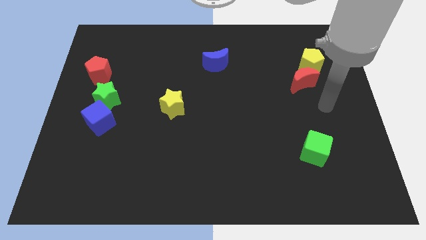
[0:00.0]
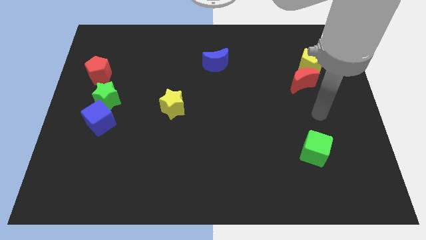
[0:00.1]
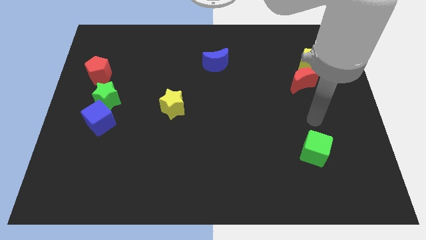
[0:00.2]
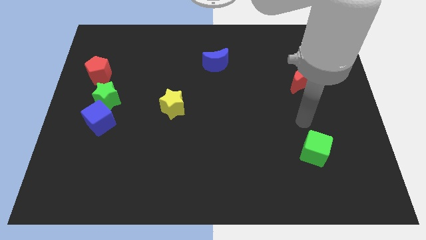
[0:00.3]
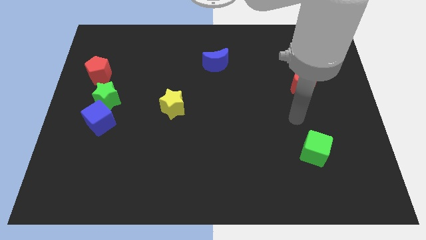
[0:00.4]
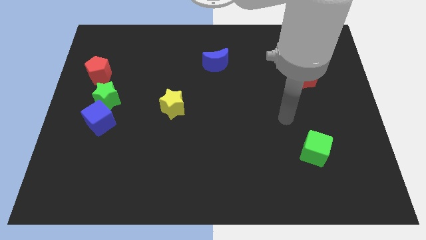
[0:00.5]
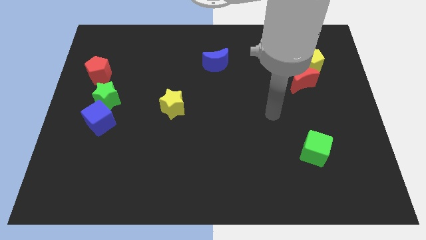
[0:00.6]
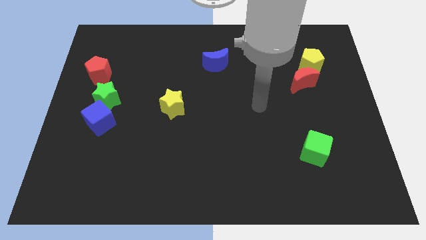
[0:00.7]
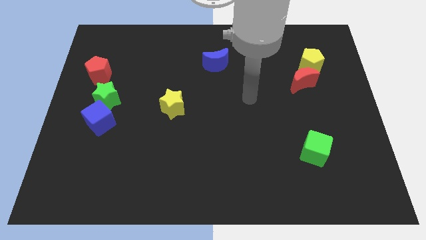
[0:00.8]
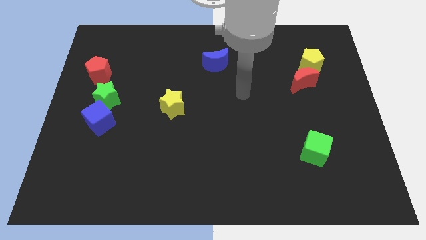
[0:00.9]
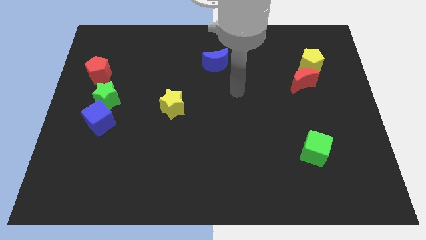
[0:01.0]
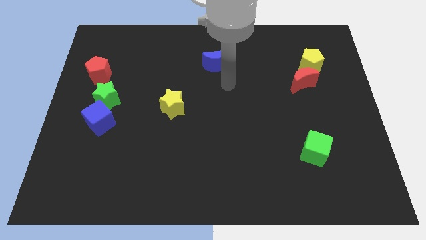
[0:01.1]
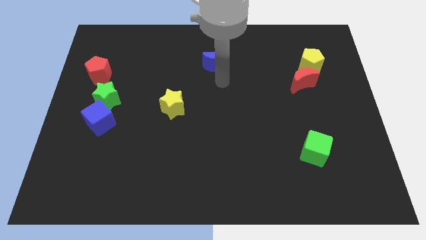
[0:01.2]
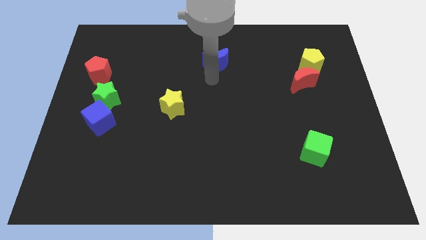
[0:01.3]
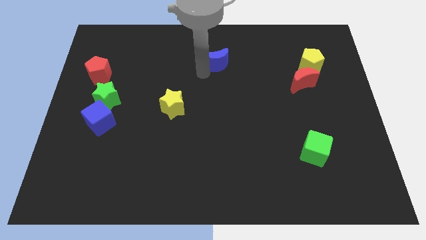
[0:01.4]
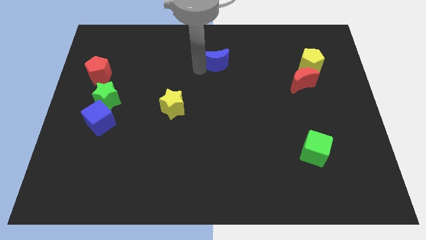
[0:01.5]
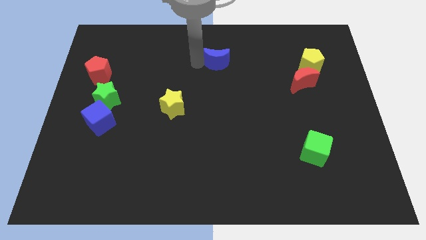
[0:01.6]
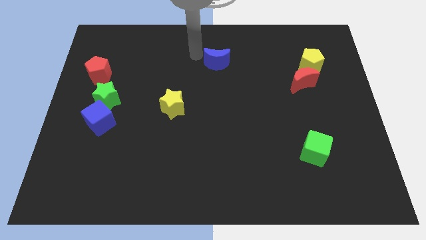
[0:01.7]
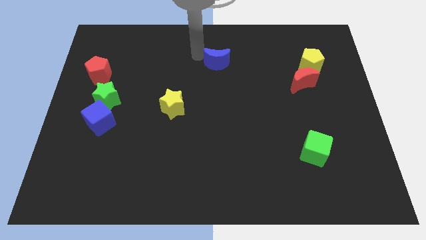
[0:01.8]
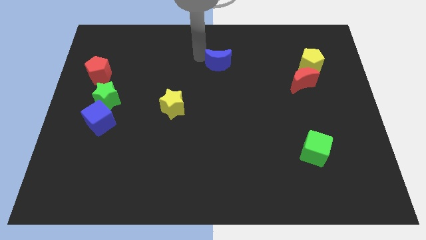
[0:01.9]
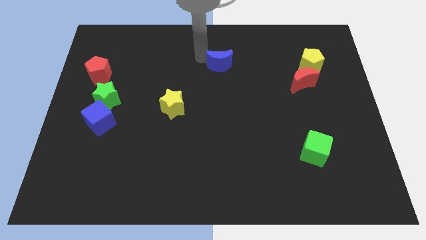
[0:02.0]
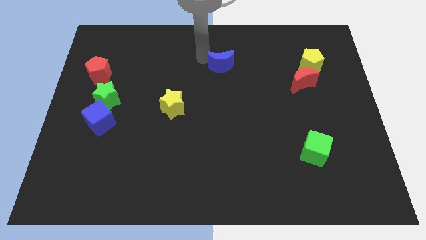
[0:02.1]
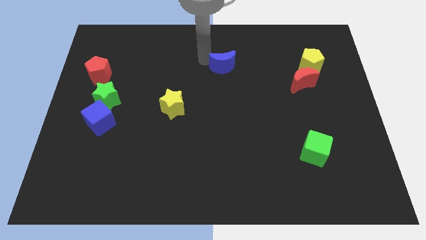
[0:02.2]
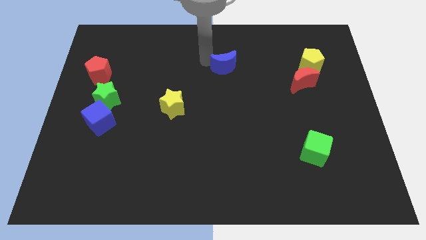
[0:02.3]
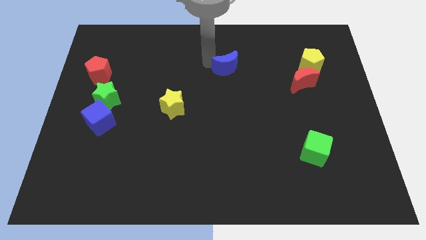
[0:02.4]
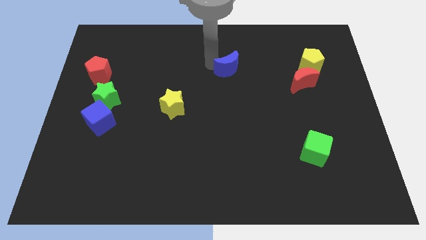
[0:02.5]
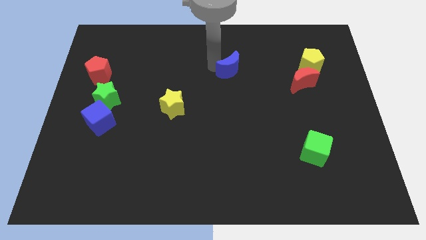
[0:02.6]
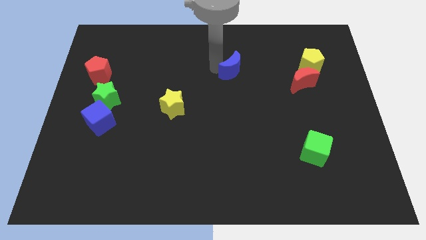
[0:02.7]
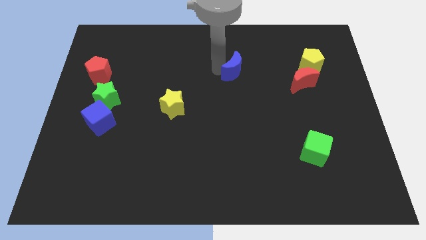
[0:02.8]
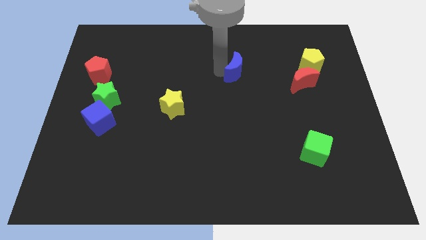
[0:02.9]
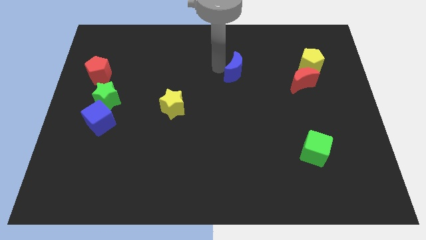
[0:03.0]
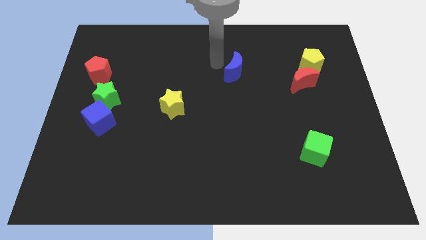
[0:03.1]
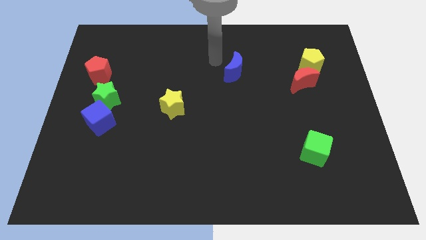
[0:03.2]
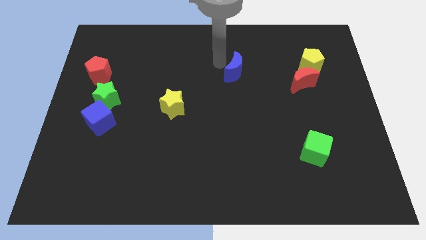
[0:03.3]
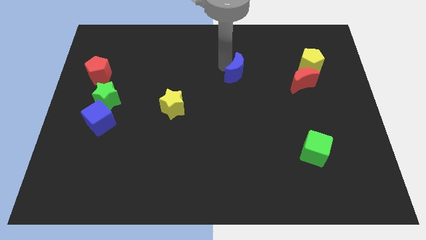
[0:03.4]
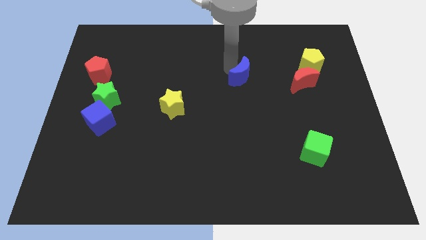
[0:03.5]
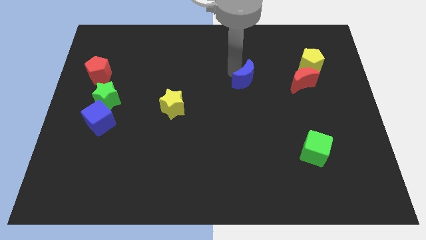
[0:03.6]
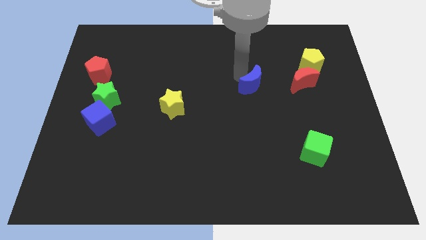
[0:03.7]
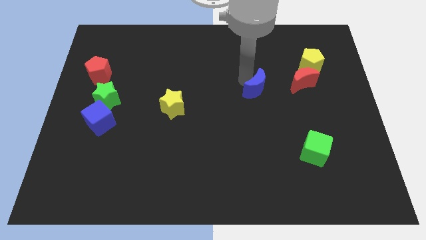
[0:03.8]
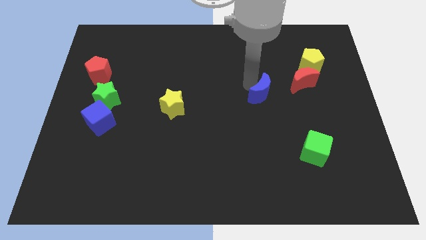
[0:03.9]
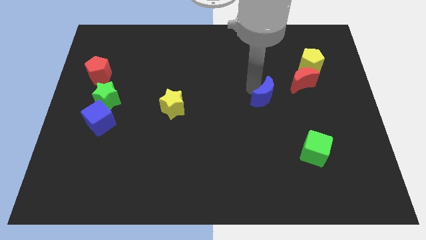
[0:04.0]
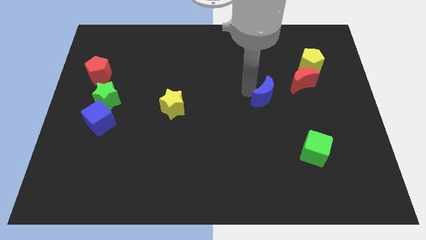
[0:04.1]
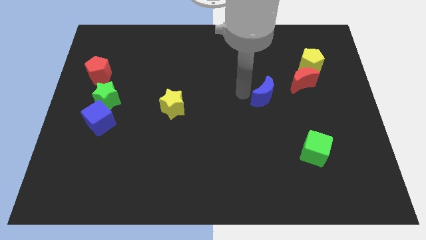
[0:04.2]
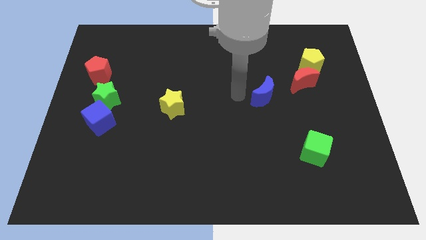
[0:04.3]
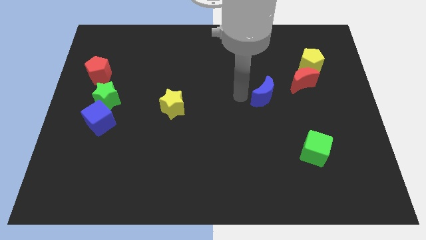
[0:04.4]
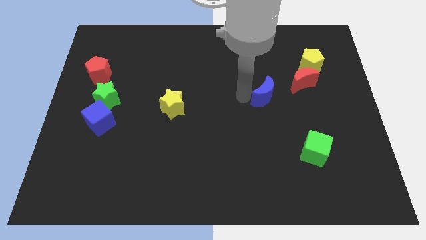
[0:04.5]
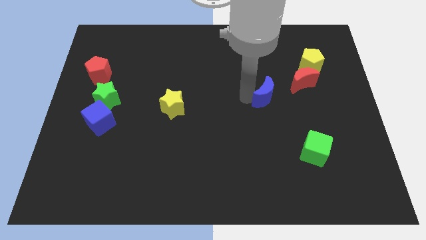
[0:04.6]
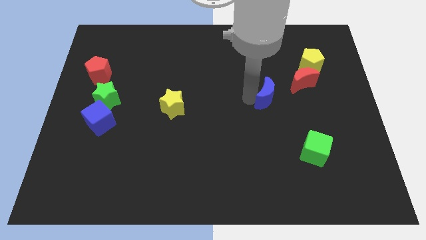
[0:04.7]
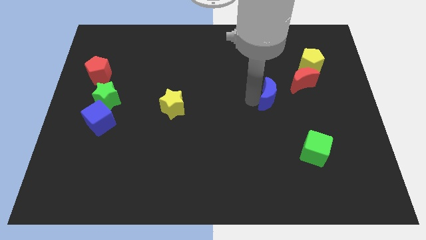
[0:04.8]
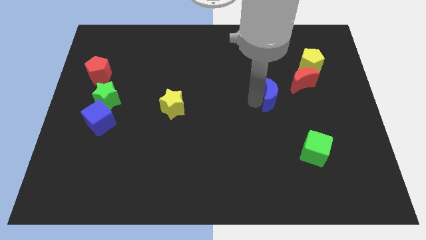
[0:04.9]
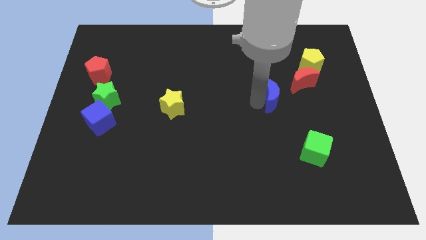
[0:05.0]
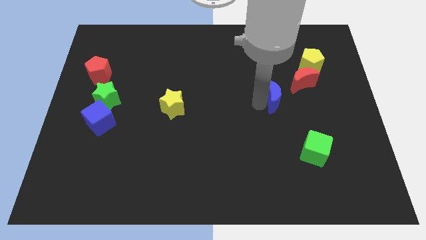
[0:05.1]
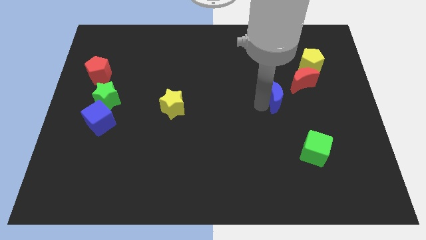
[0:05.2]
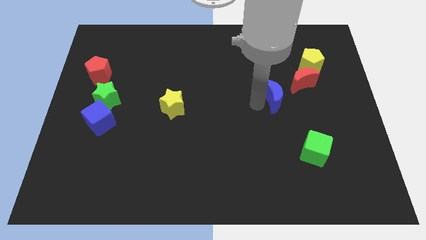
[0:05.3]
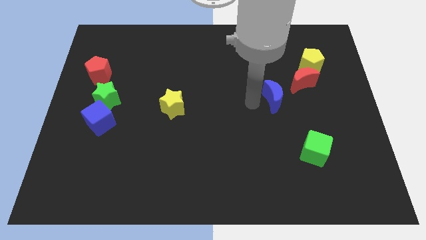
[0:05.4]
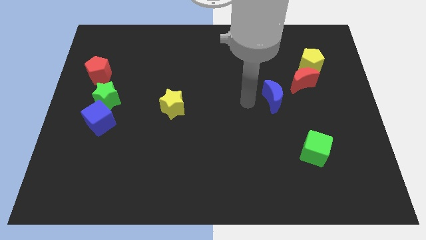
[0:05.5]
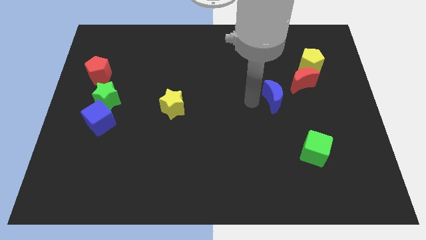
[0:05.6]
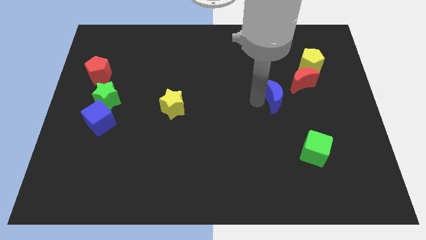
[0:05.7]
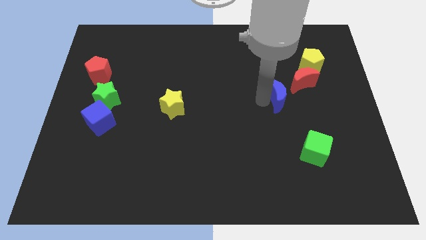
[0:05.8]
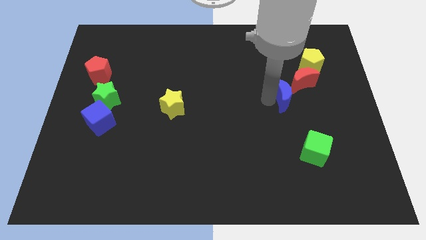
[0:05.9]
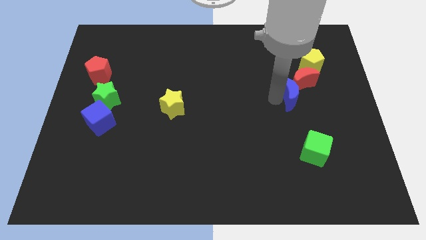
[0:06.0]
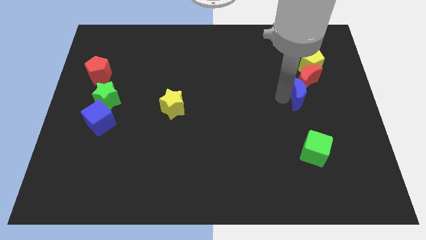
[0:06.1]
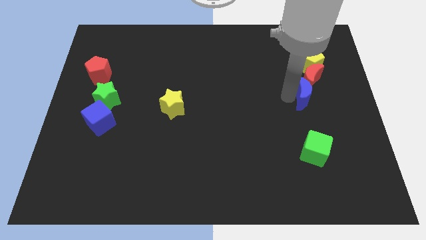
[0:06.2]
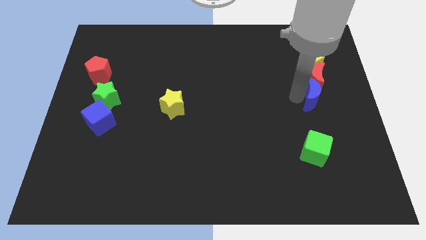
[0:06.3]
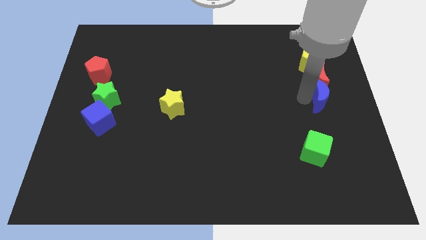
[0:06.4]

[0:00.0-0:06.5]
push the blue moon to the bottom right side of the red moon
